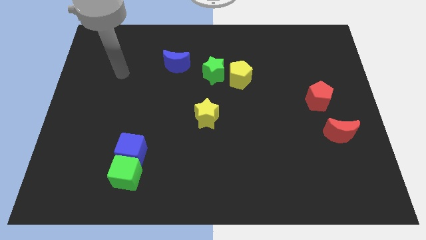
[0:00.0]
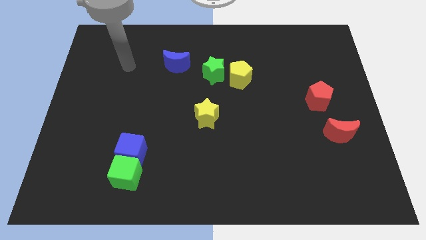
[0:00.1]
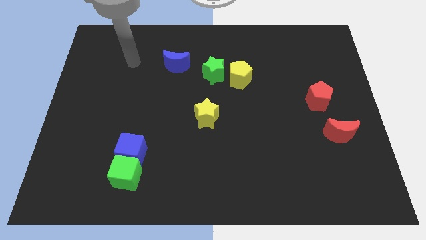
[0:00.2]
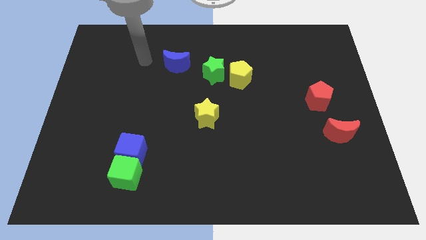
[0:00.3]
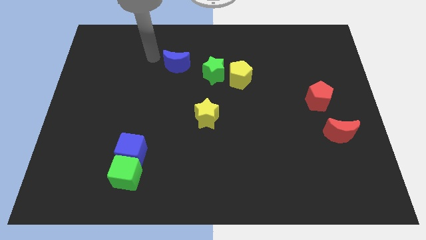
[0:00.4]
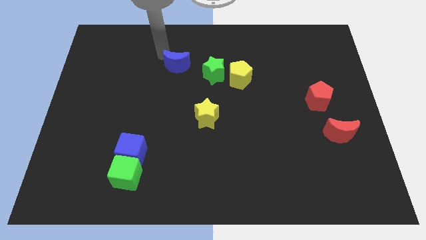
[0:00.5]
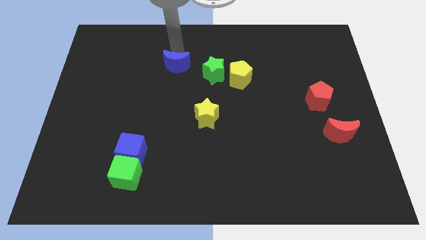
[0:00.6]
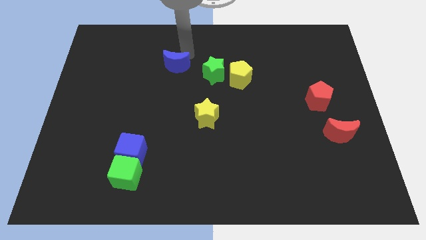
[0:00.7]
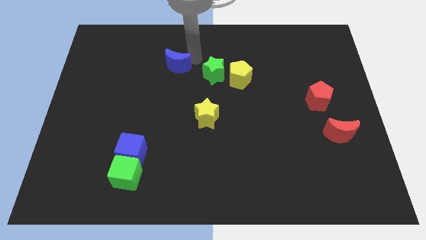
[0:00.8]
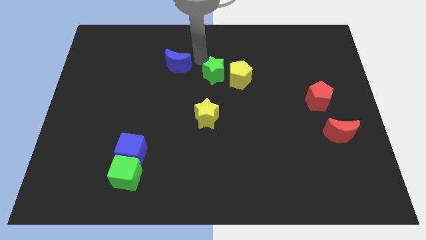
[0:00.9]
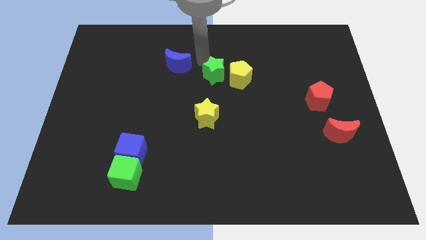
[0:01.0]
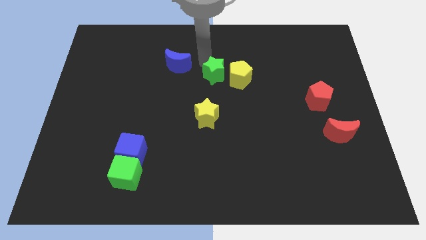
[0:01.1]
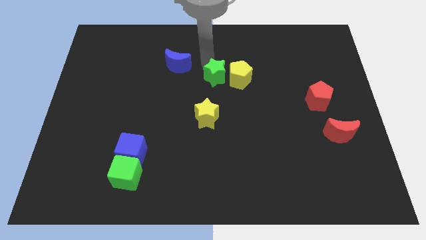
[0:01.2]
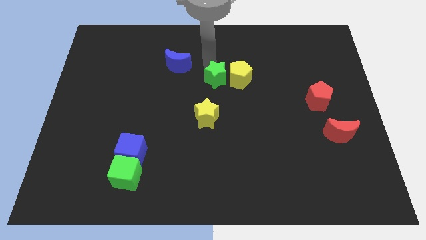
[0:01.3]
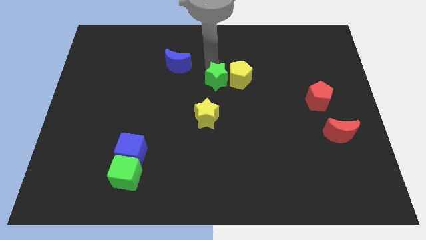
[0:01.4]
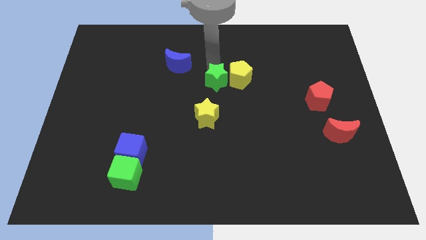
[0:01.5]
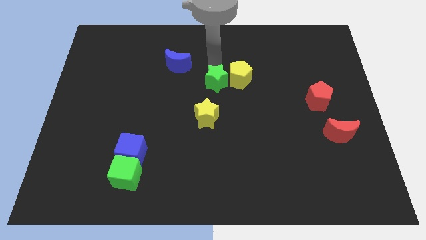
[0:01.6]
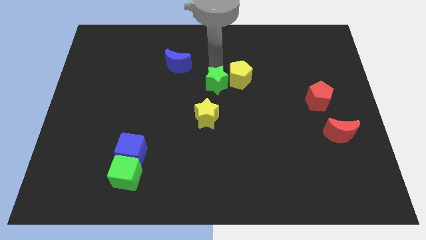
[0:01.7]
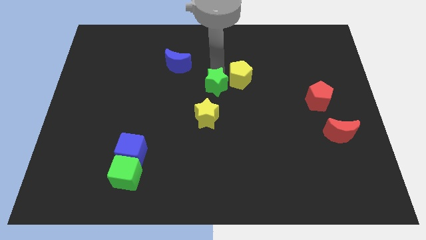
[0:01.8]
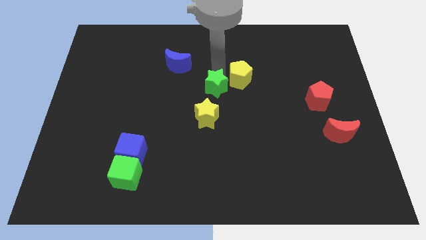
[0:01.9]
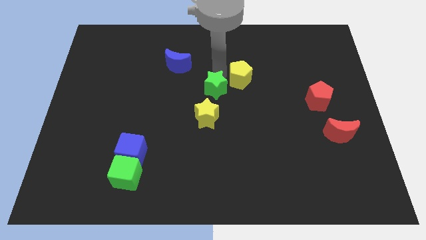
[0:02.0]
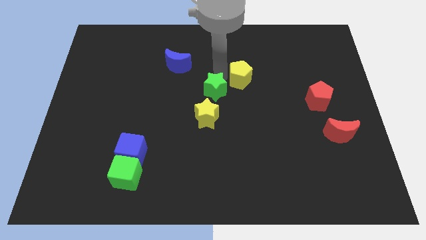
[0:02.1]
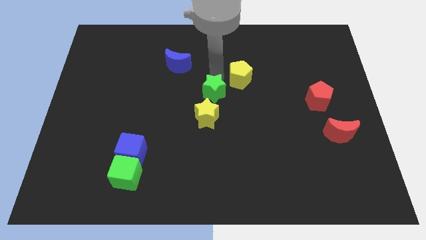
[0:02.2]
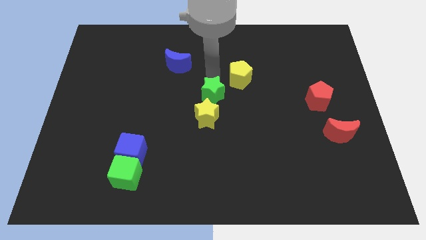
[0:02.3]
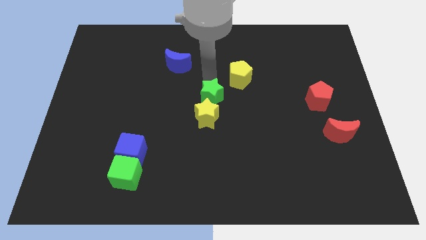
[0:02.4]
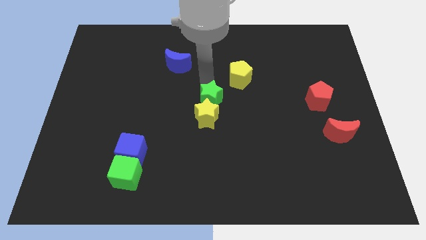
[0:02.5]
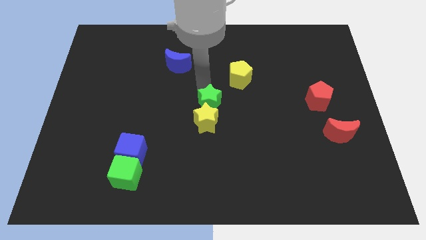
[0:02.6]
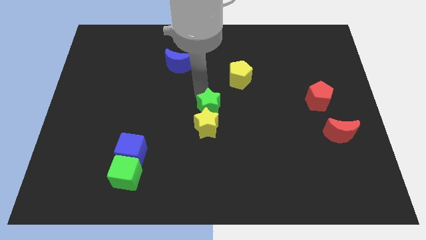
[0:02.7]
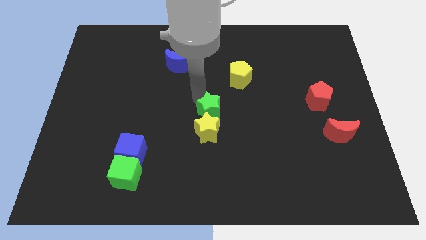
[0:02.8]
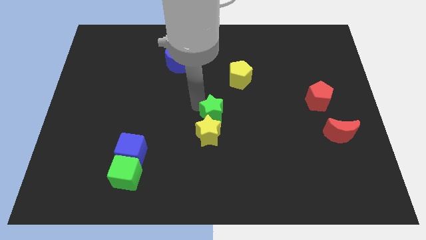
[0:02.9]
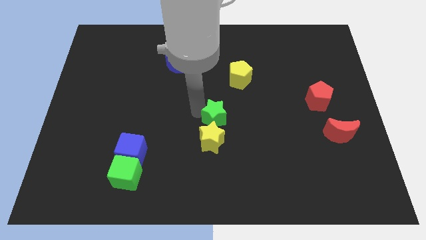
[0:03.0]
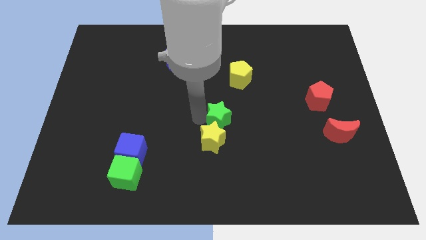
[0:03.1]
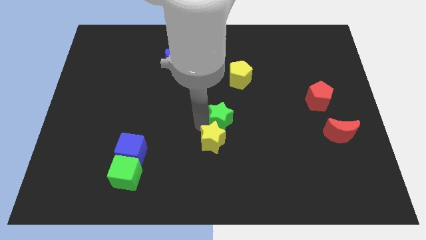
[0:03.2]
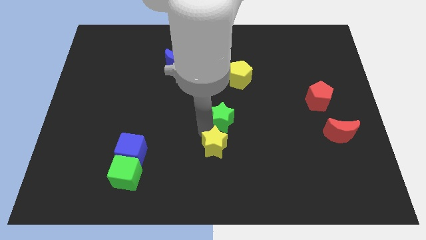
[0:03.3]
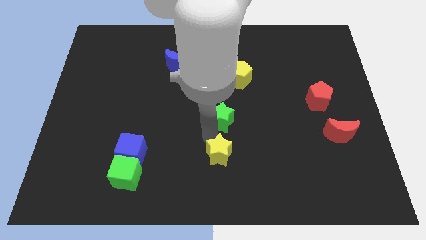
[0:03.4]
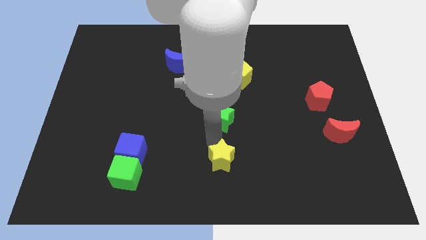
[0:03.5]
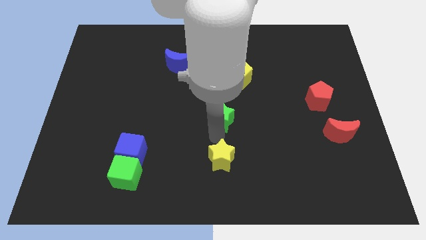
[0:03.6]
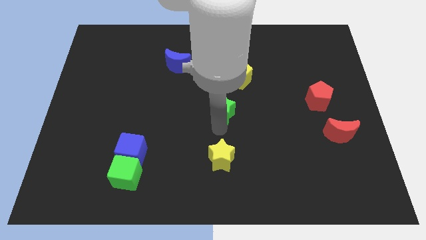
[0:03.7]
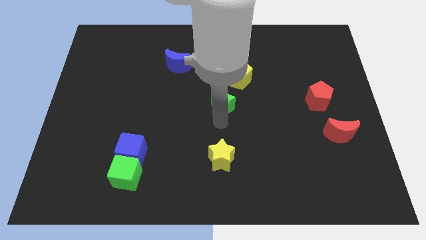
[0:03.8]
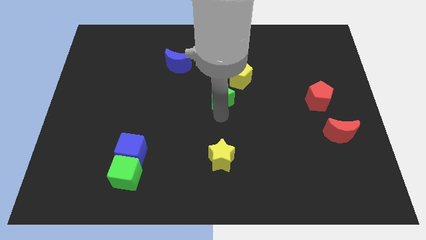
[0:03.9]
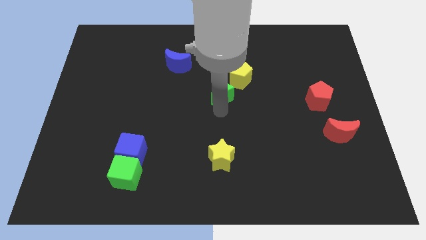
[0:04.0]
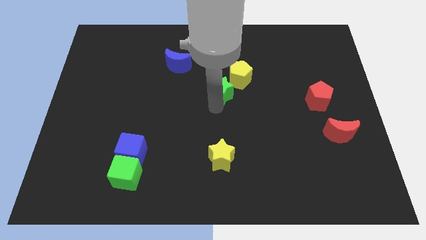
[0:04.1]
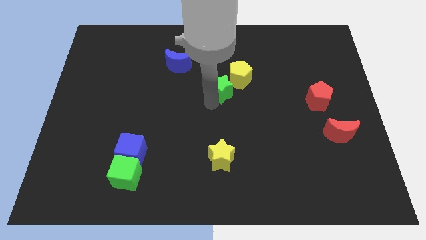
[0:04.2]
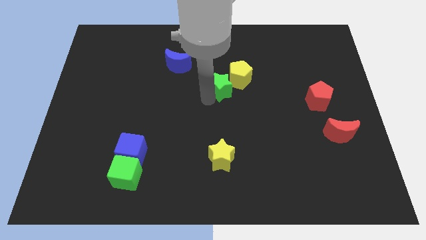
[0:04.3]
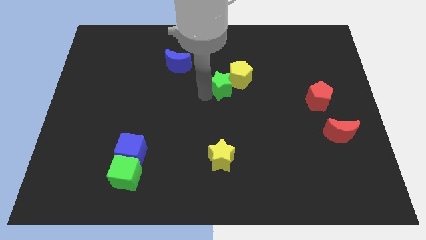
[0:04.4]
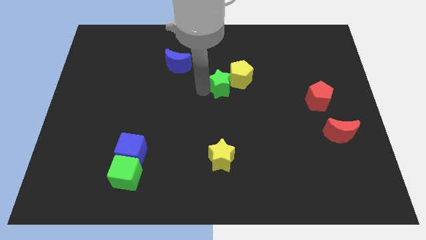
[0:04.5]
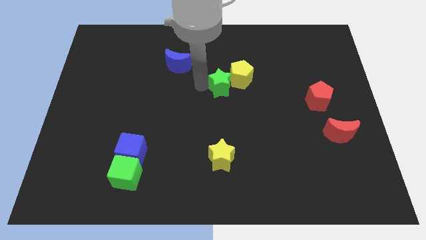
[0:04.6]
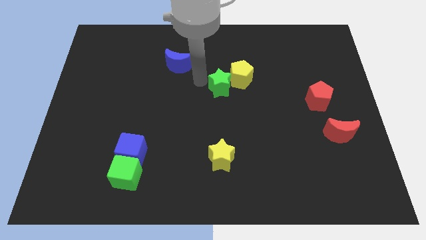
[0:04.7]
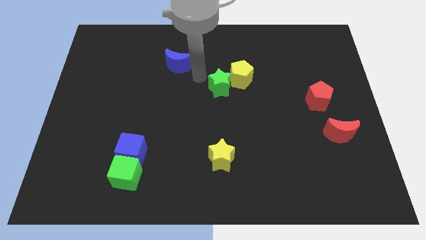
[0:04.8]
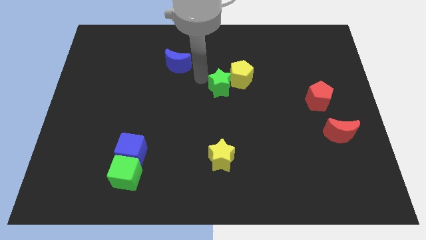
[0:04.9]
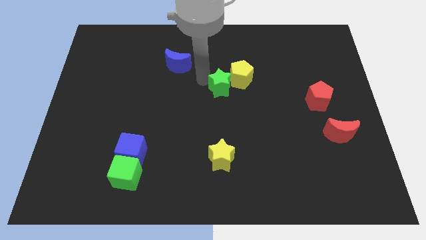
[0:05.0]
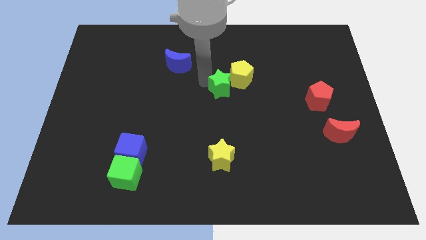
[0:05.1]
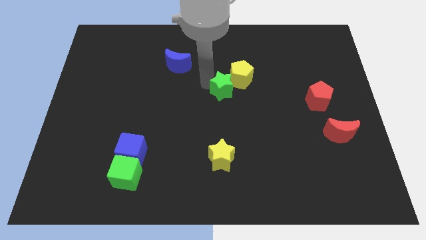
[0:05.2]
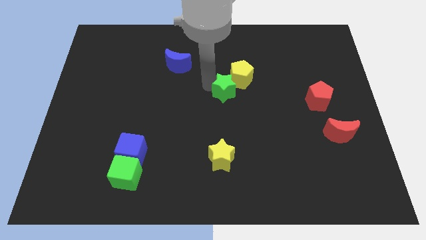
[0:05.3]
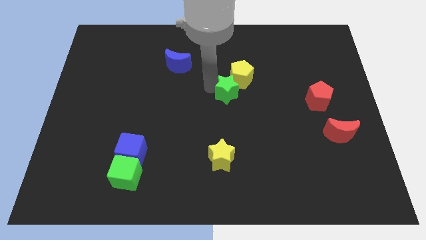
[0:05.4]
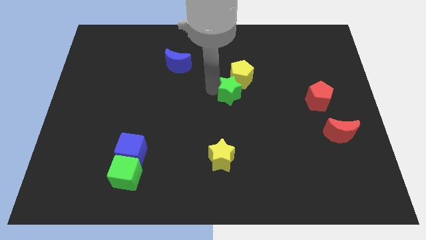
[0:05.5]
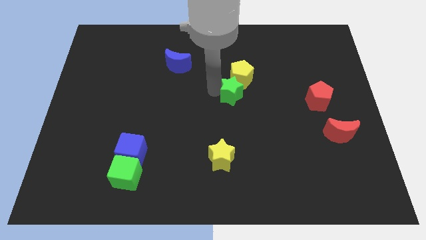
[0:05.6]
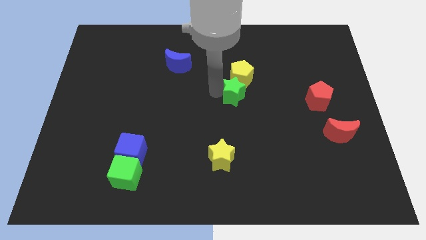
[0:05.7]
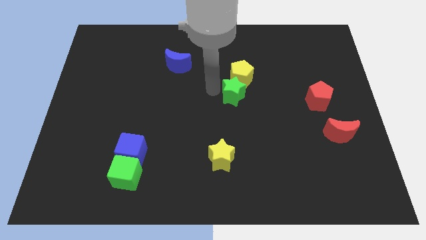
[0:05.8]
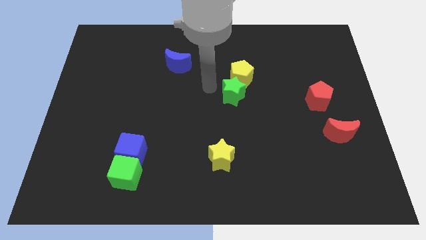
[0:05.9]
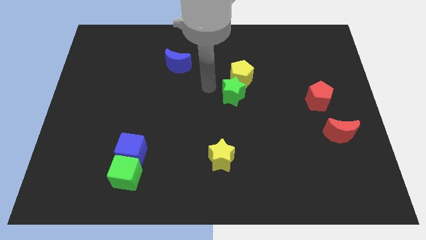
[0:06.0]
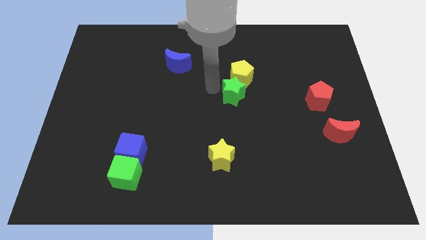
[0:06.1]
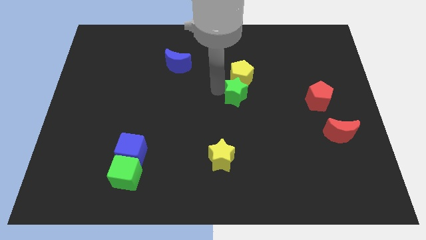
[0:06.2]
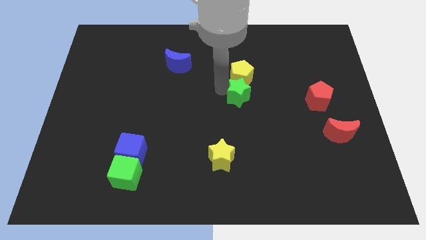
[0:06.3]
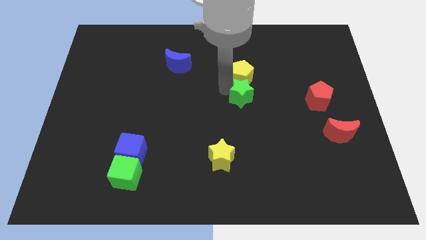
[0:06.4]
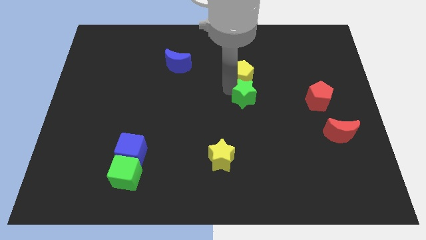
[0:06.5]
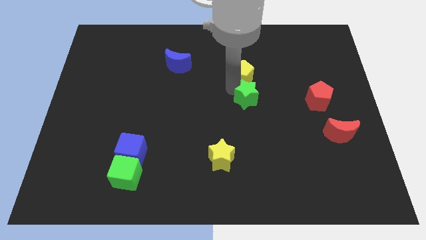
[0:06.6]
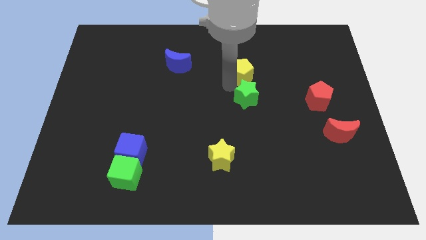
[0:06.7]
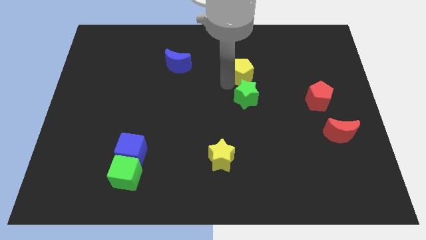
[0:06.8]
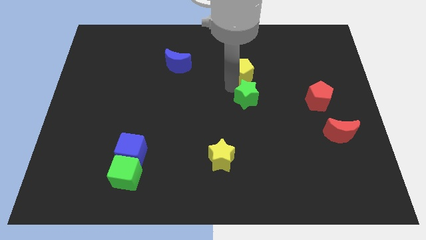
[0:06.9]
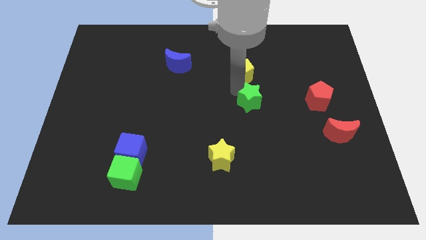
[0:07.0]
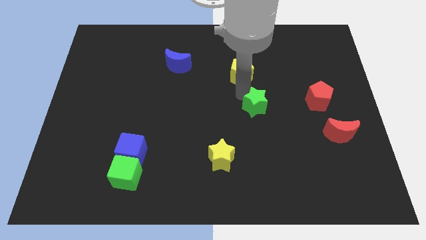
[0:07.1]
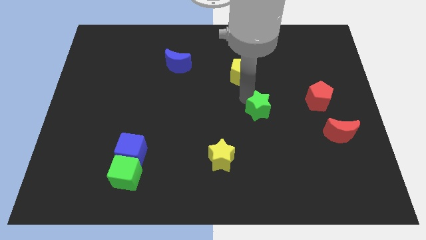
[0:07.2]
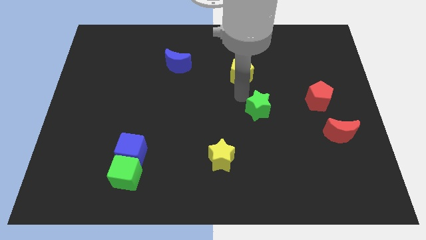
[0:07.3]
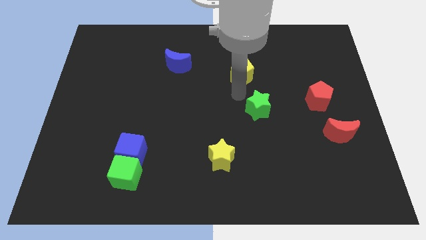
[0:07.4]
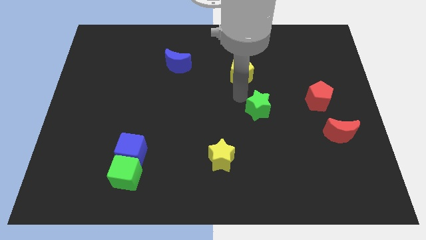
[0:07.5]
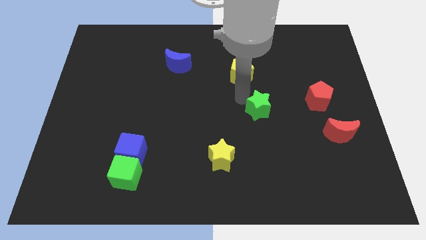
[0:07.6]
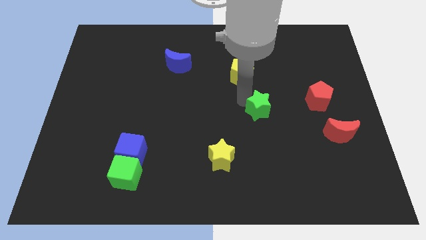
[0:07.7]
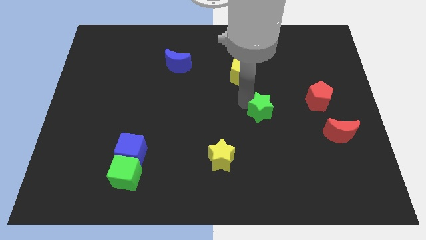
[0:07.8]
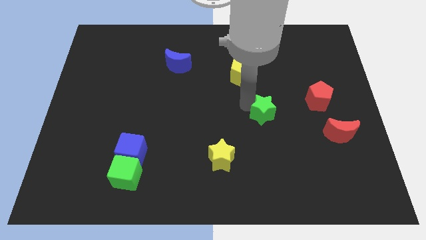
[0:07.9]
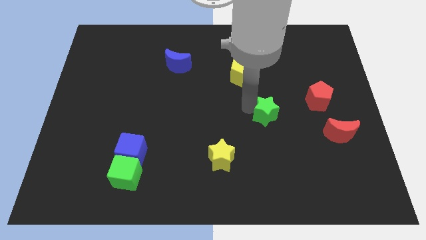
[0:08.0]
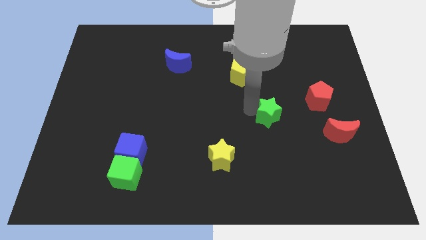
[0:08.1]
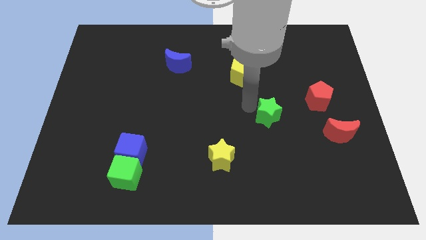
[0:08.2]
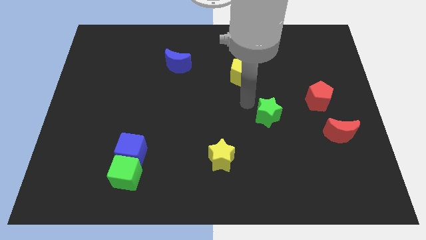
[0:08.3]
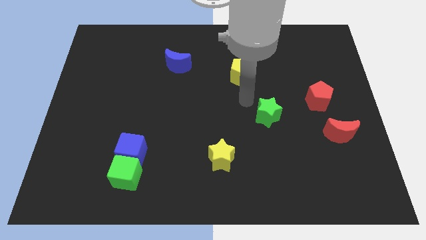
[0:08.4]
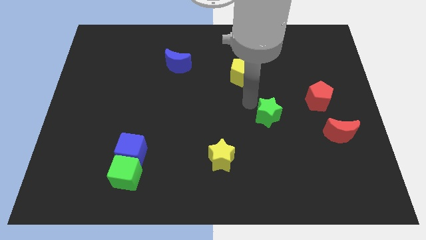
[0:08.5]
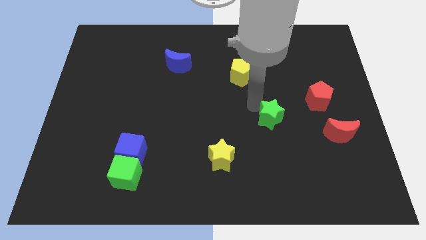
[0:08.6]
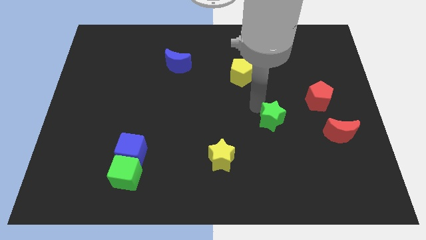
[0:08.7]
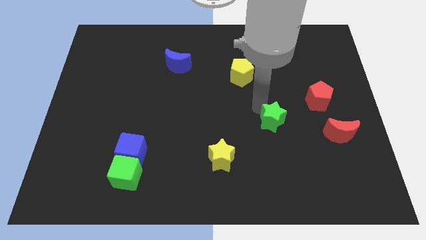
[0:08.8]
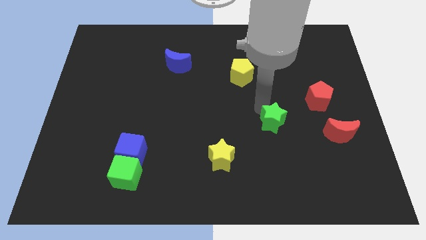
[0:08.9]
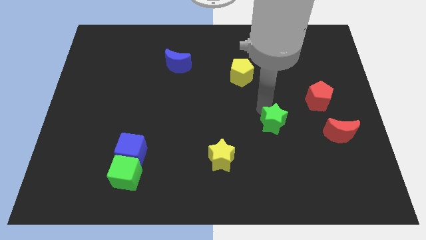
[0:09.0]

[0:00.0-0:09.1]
move the green star down and to the right
